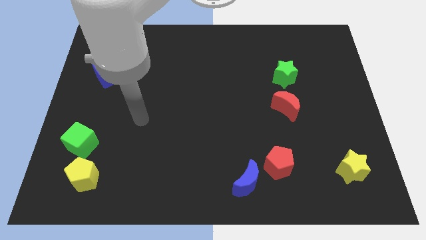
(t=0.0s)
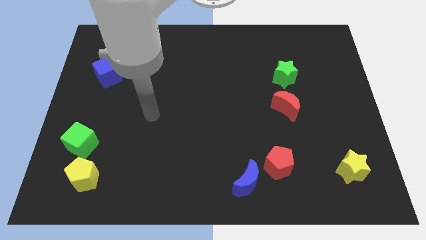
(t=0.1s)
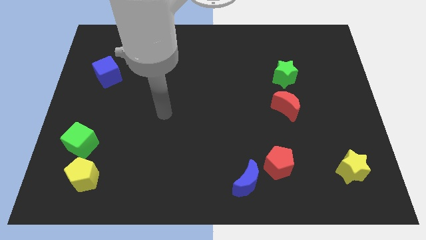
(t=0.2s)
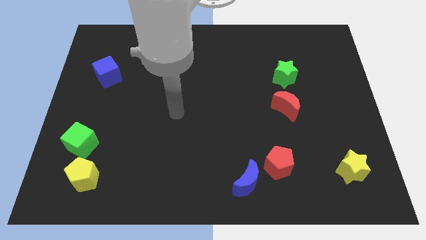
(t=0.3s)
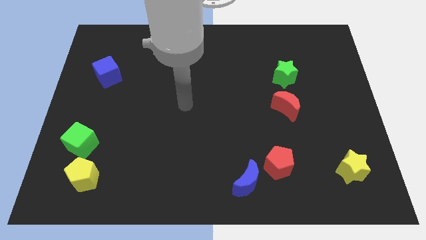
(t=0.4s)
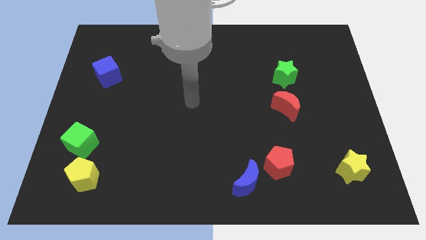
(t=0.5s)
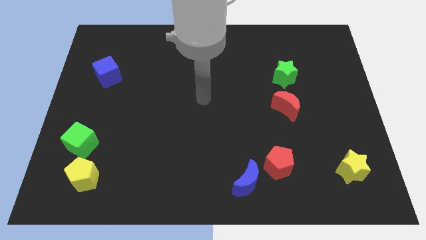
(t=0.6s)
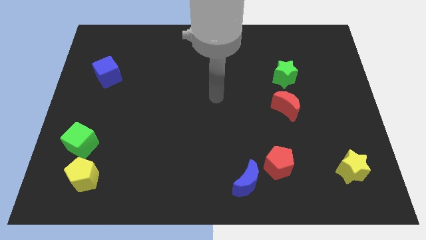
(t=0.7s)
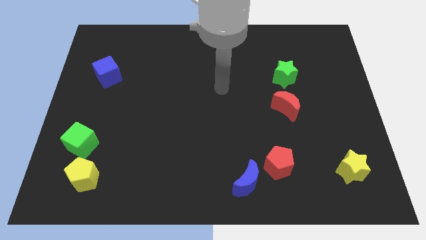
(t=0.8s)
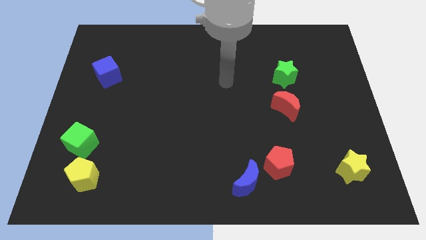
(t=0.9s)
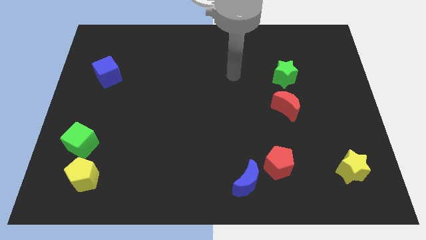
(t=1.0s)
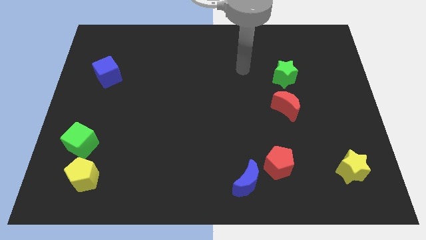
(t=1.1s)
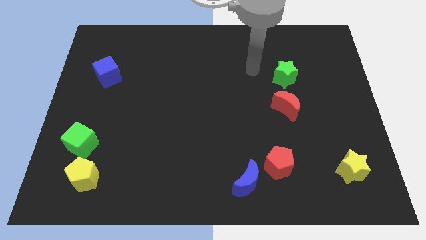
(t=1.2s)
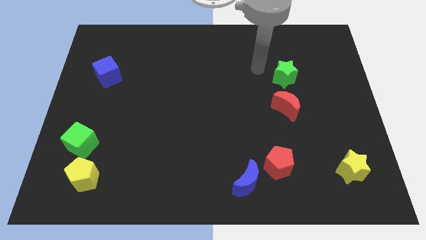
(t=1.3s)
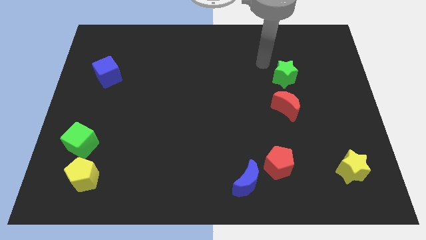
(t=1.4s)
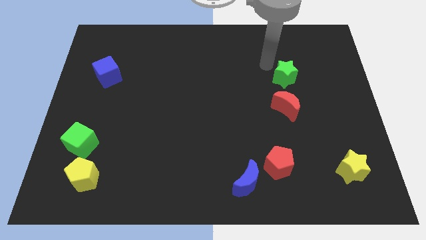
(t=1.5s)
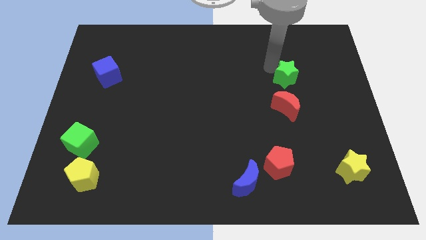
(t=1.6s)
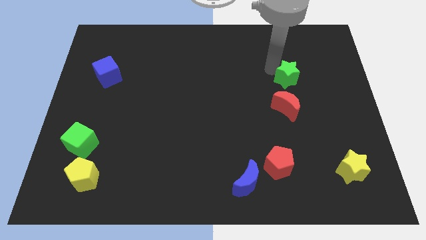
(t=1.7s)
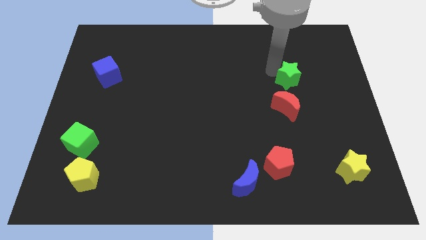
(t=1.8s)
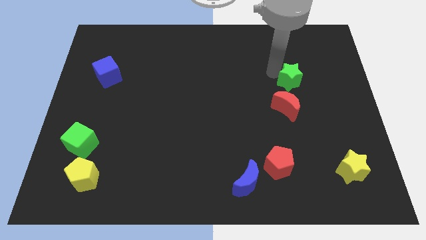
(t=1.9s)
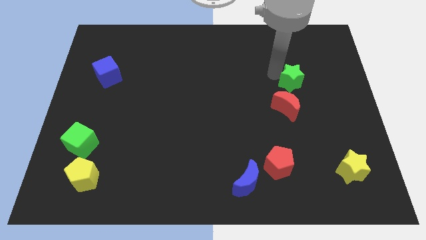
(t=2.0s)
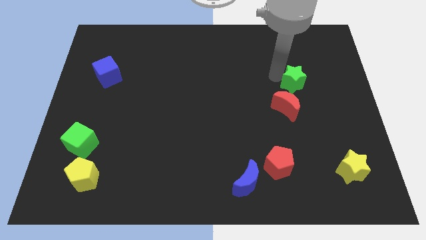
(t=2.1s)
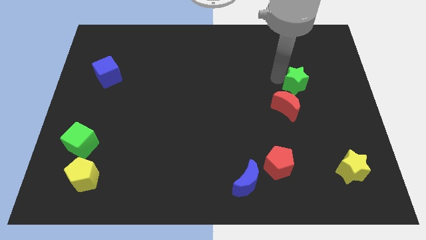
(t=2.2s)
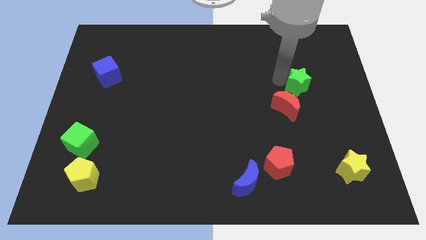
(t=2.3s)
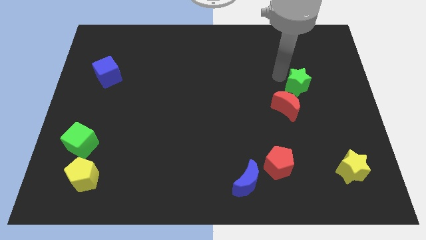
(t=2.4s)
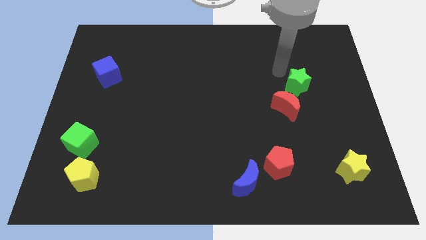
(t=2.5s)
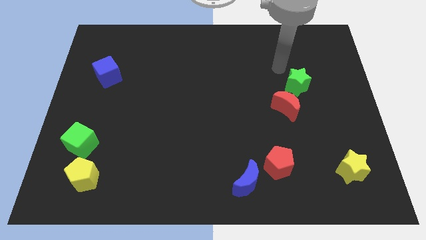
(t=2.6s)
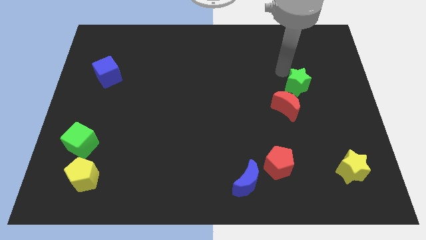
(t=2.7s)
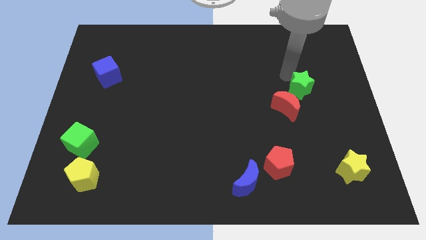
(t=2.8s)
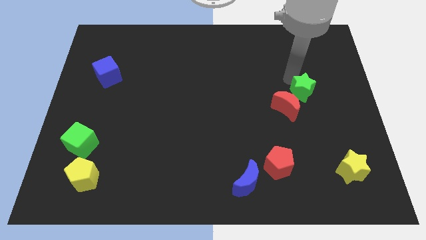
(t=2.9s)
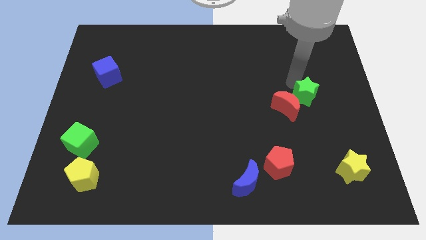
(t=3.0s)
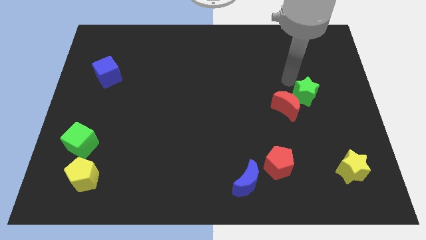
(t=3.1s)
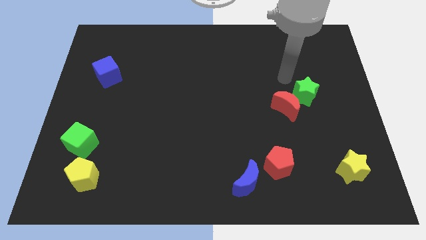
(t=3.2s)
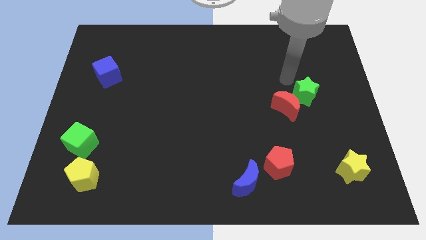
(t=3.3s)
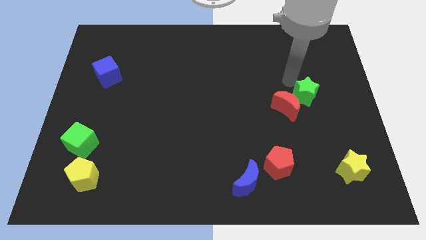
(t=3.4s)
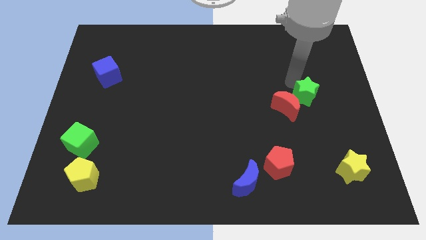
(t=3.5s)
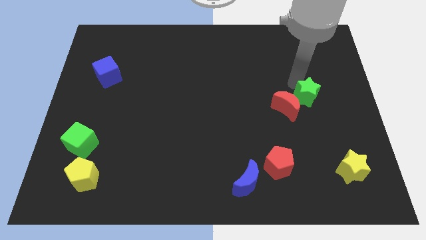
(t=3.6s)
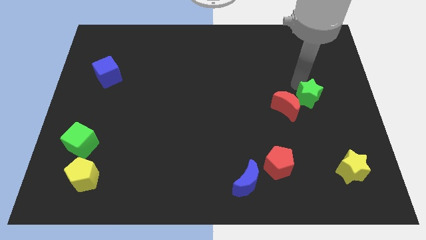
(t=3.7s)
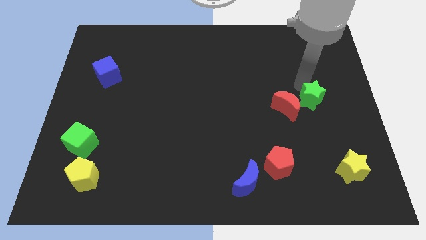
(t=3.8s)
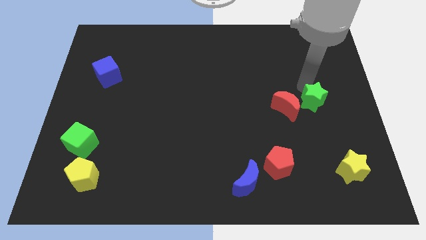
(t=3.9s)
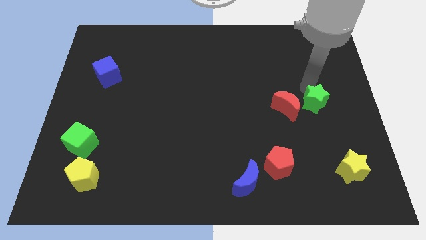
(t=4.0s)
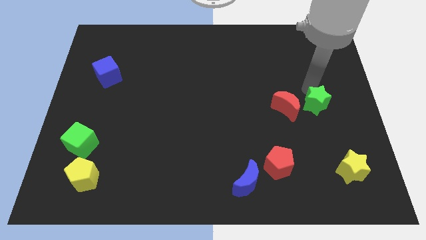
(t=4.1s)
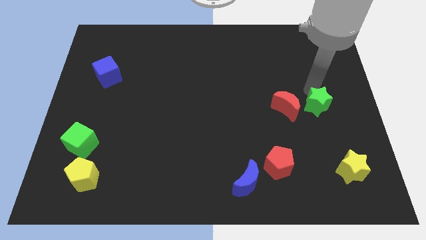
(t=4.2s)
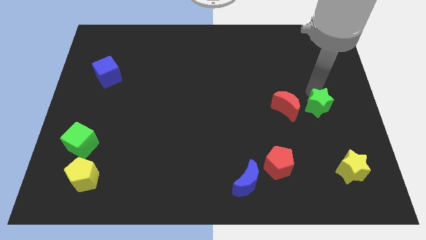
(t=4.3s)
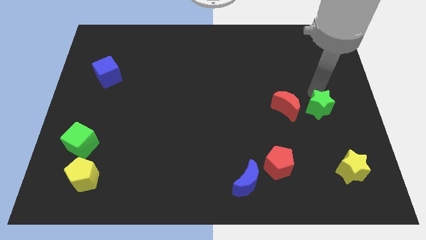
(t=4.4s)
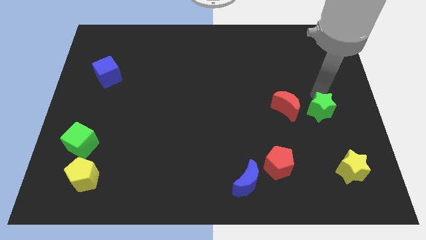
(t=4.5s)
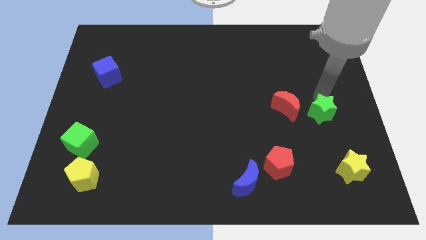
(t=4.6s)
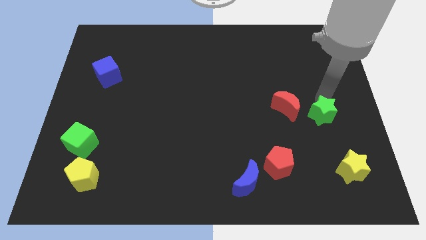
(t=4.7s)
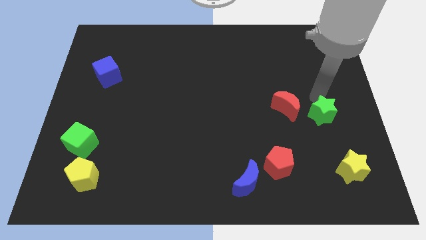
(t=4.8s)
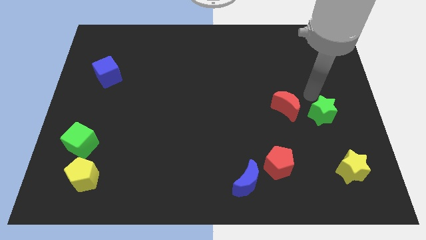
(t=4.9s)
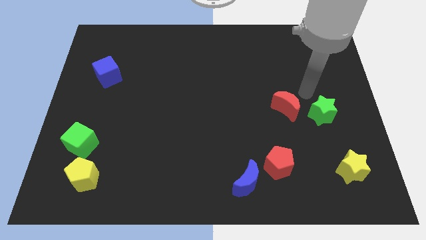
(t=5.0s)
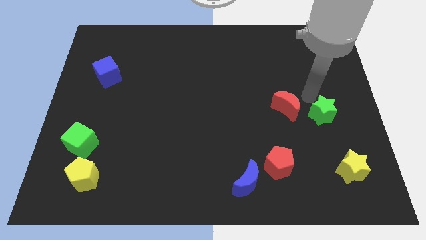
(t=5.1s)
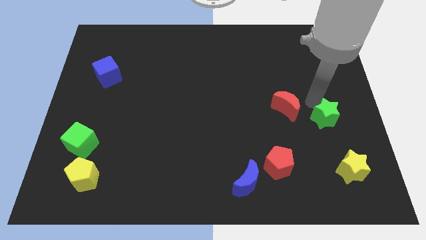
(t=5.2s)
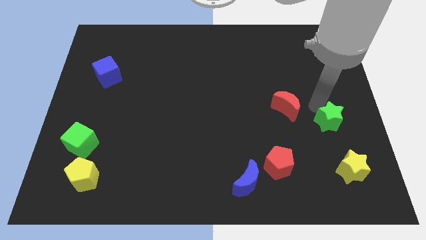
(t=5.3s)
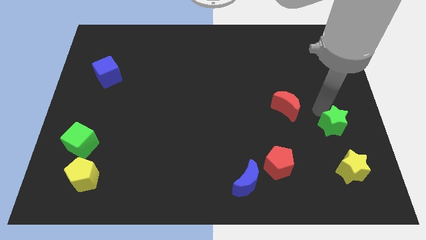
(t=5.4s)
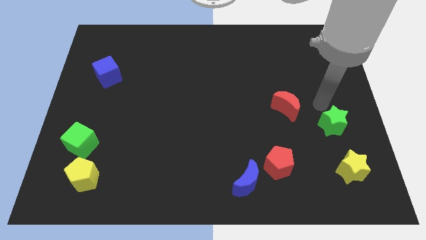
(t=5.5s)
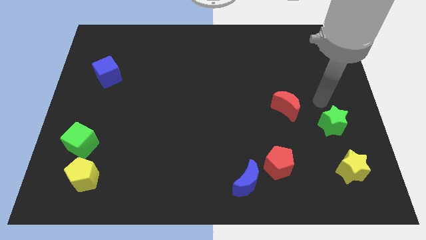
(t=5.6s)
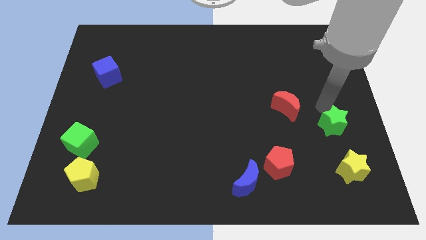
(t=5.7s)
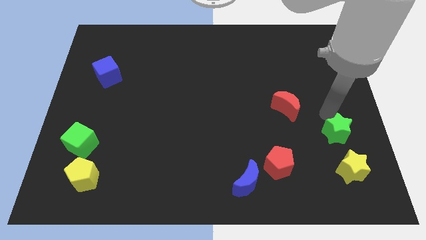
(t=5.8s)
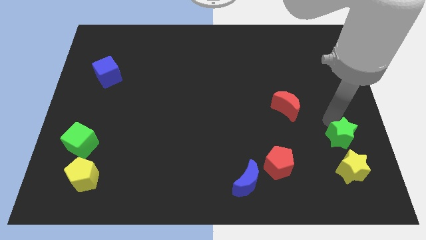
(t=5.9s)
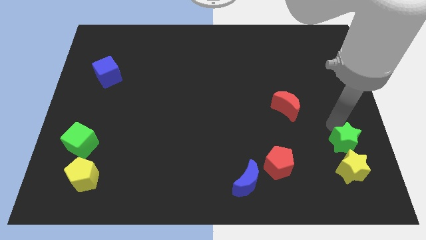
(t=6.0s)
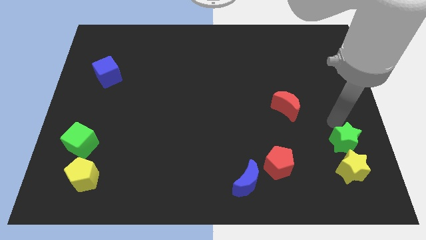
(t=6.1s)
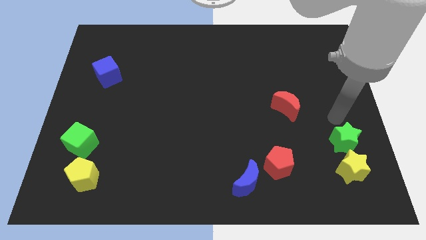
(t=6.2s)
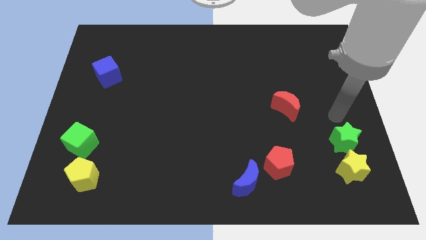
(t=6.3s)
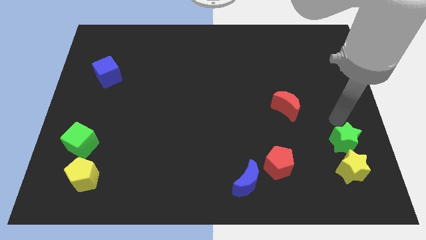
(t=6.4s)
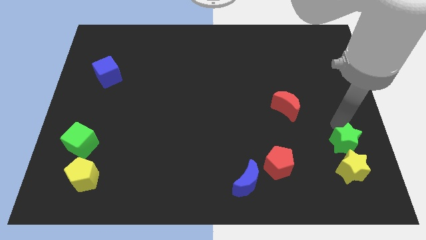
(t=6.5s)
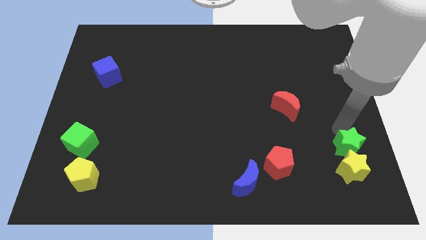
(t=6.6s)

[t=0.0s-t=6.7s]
slide the green star towards the yellow star

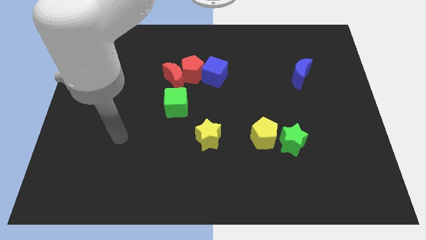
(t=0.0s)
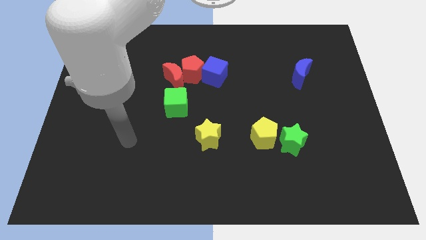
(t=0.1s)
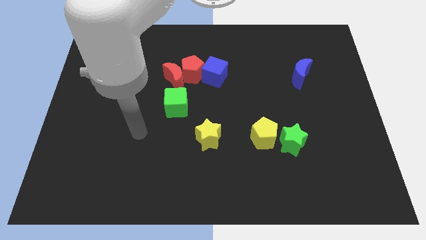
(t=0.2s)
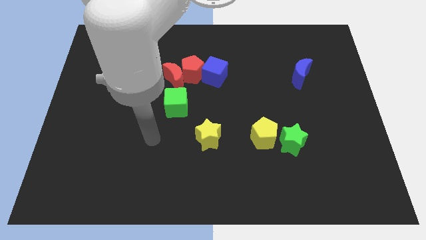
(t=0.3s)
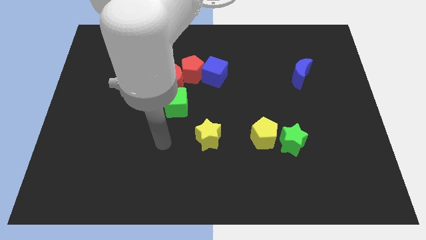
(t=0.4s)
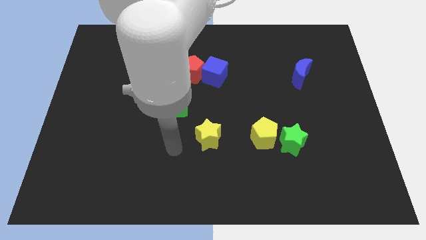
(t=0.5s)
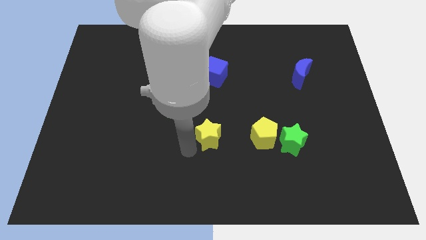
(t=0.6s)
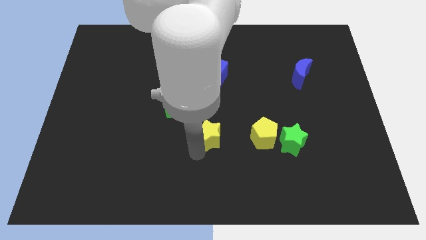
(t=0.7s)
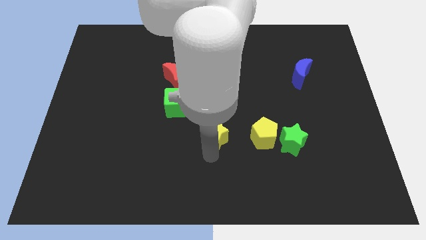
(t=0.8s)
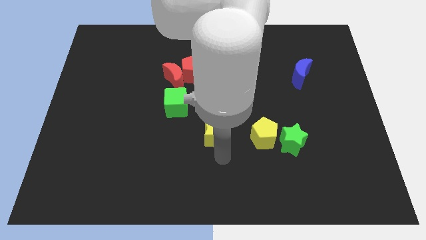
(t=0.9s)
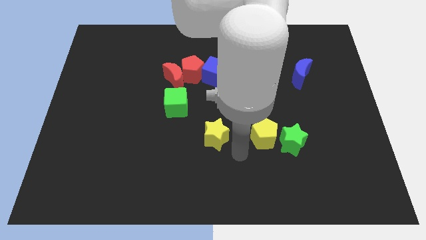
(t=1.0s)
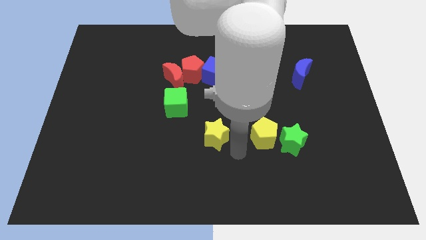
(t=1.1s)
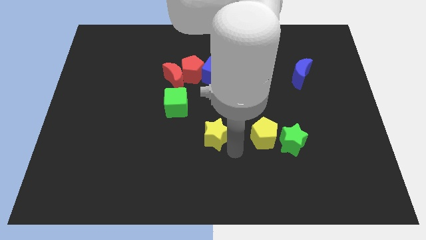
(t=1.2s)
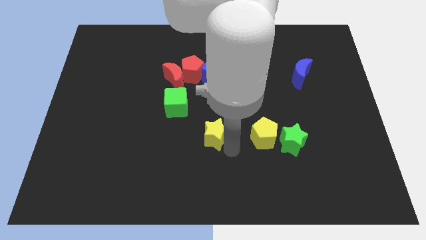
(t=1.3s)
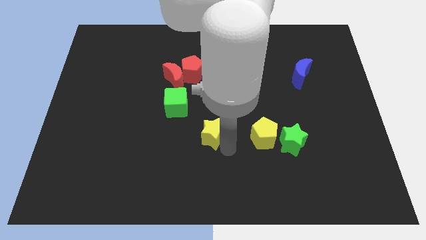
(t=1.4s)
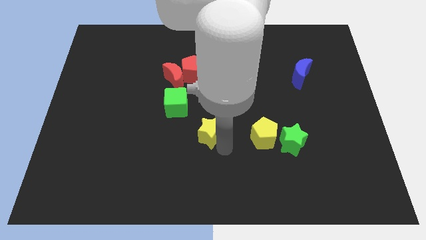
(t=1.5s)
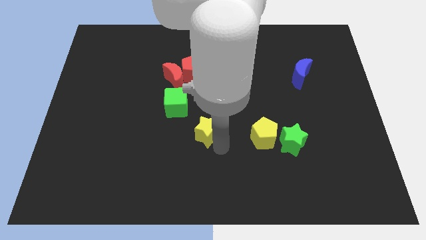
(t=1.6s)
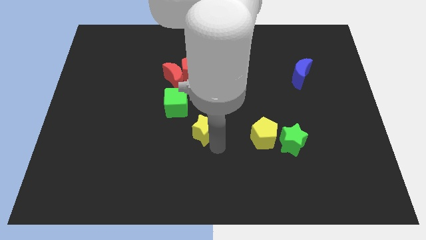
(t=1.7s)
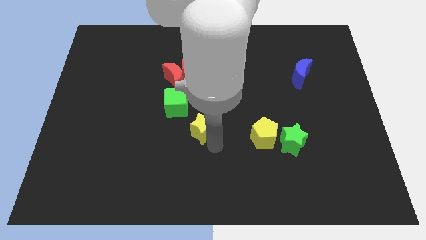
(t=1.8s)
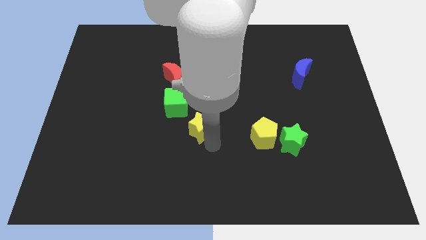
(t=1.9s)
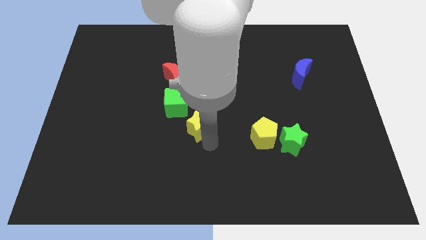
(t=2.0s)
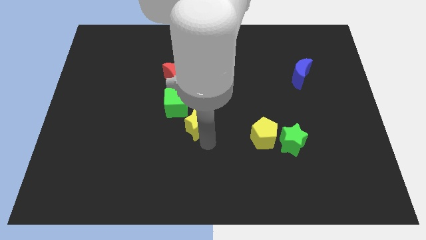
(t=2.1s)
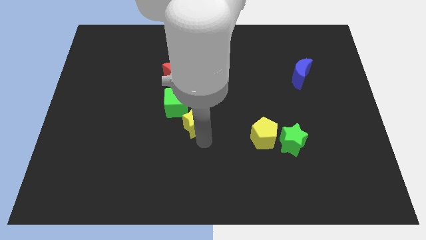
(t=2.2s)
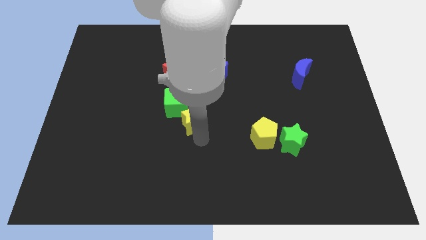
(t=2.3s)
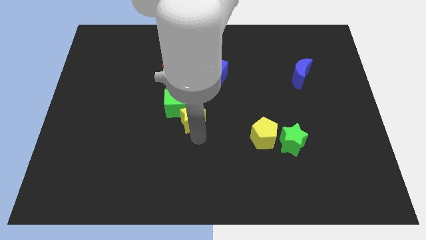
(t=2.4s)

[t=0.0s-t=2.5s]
slide the yellow star towards the green cube
